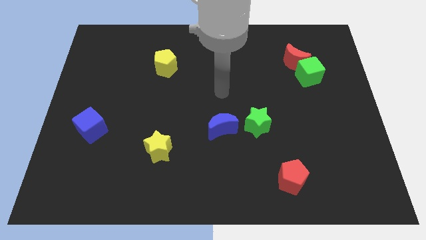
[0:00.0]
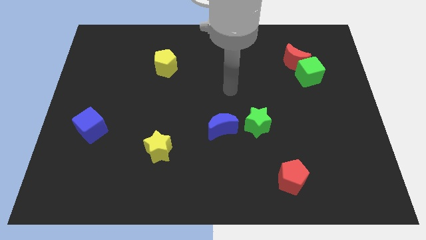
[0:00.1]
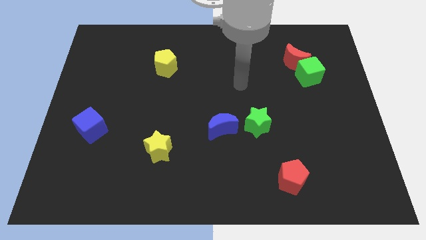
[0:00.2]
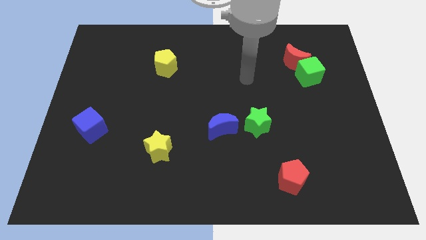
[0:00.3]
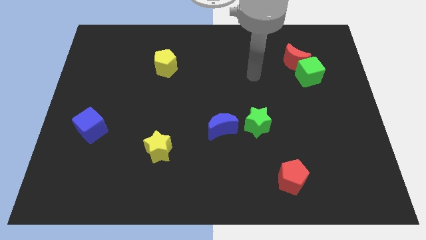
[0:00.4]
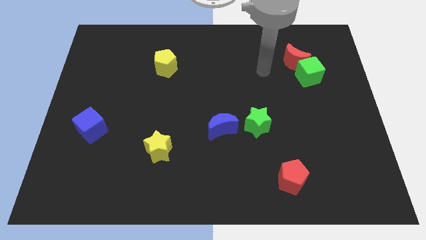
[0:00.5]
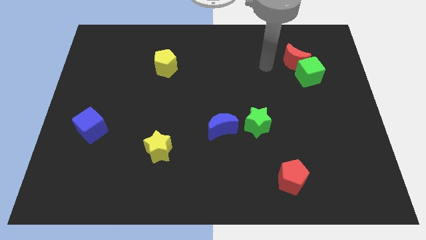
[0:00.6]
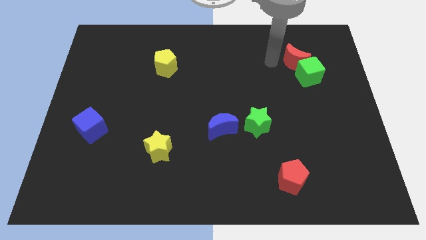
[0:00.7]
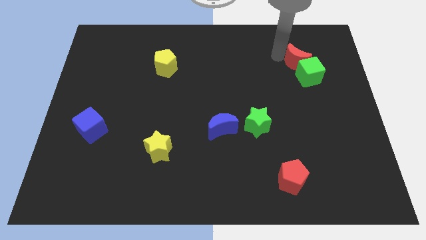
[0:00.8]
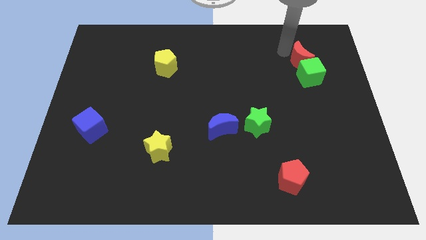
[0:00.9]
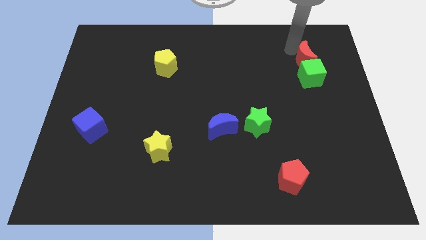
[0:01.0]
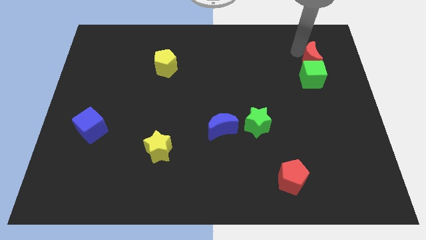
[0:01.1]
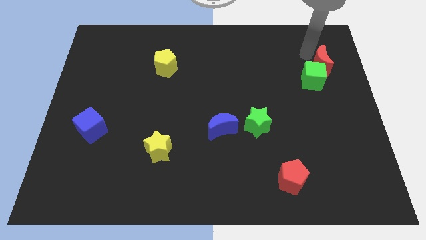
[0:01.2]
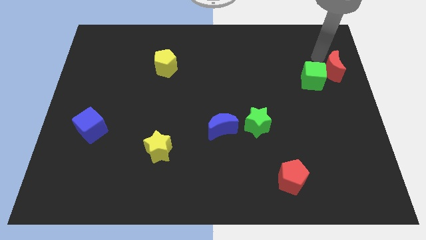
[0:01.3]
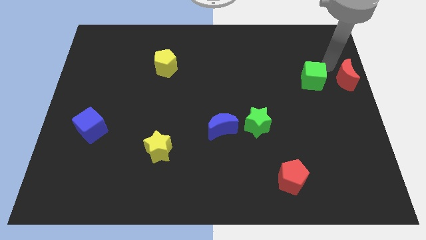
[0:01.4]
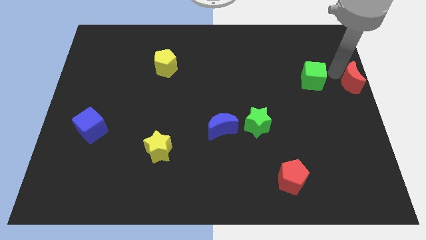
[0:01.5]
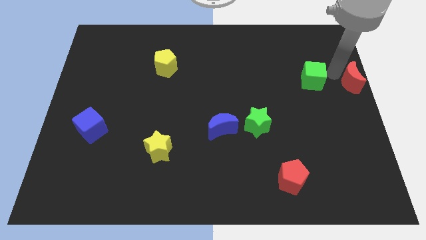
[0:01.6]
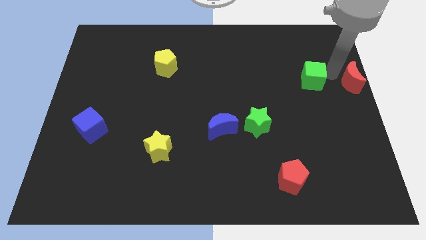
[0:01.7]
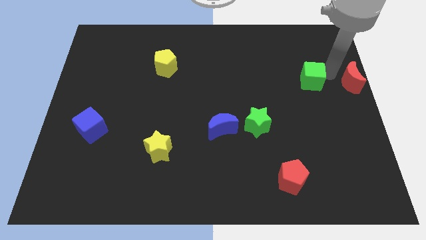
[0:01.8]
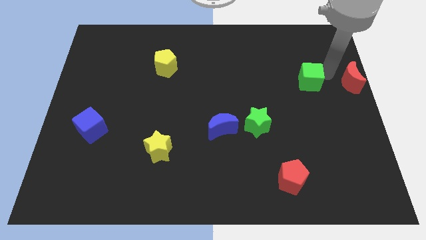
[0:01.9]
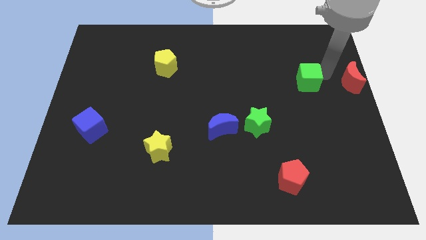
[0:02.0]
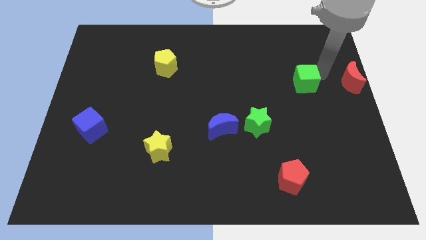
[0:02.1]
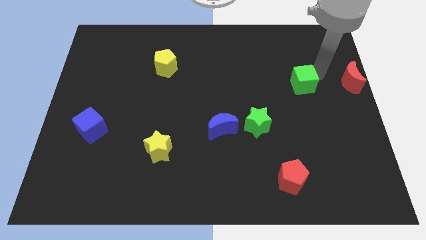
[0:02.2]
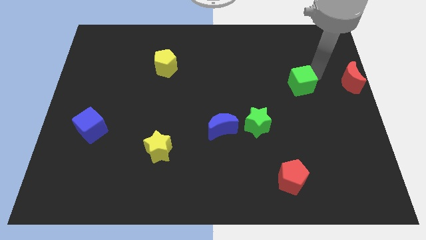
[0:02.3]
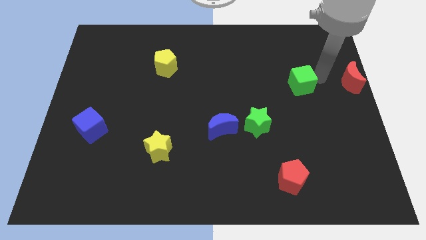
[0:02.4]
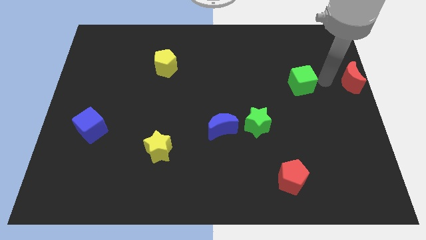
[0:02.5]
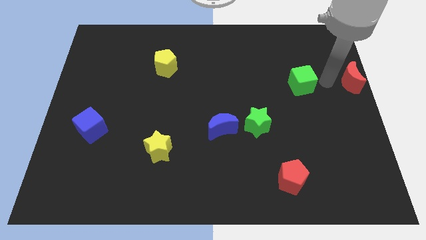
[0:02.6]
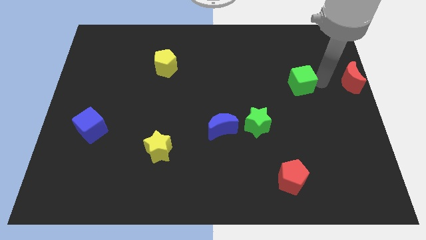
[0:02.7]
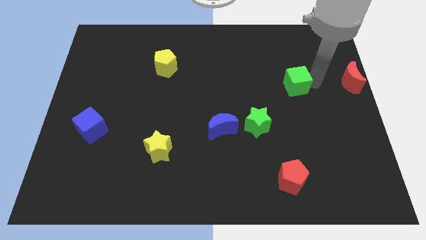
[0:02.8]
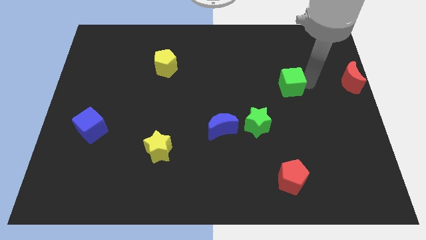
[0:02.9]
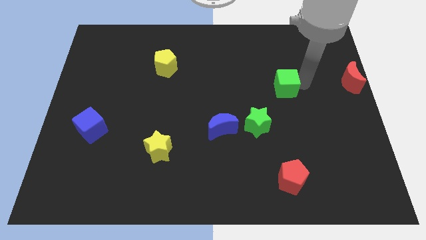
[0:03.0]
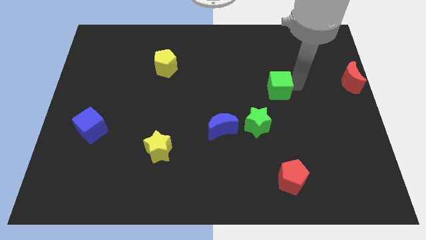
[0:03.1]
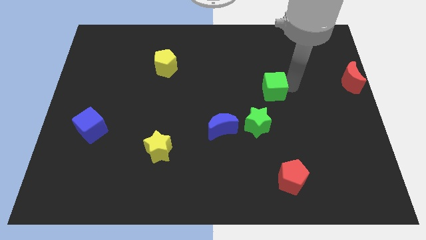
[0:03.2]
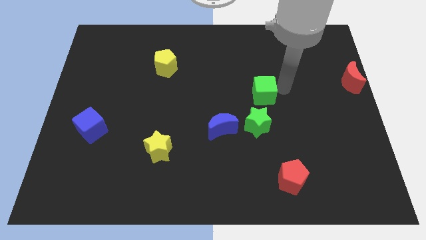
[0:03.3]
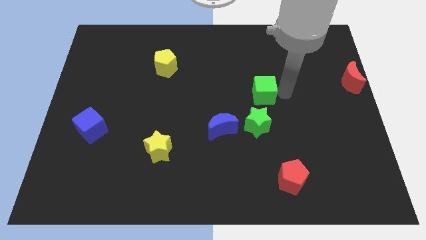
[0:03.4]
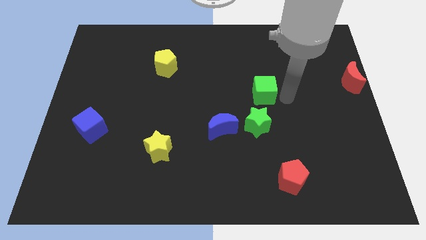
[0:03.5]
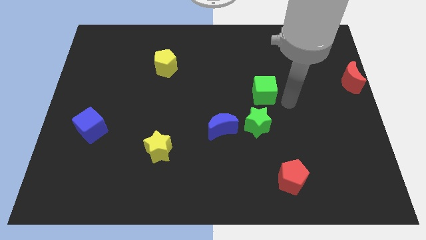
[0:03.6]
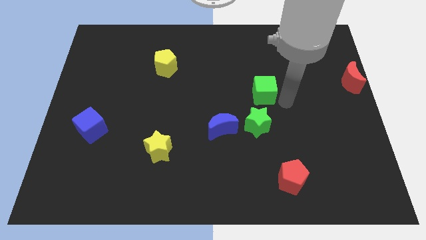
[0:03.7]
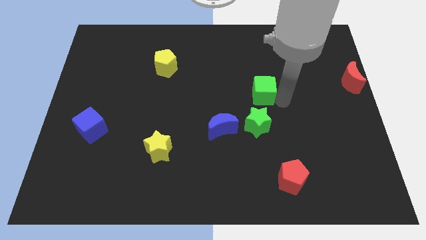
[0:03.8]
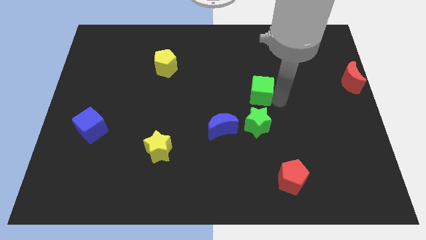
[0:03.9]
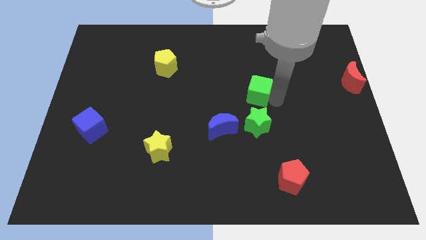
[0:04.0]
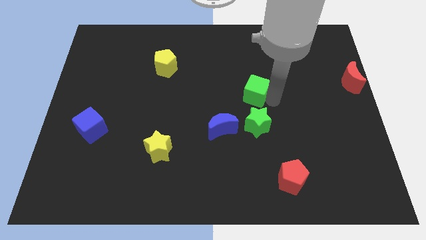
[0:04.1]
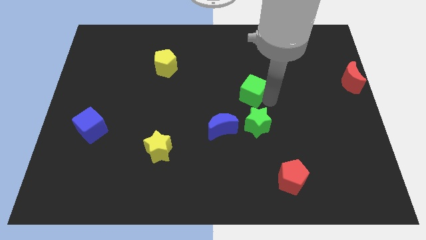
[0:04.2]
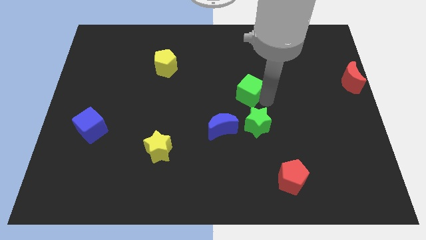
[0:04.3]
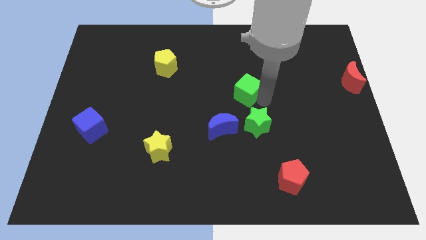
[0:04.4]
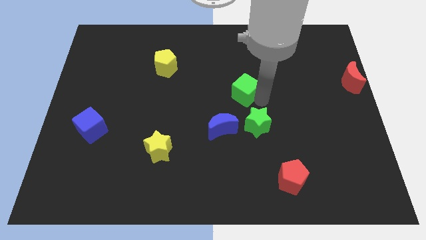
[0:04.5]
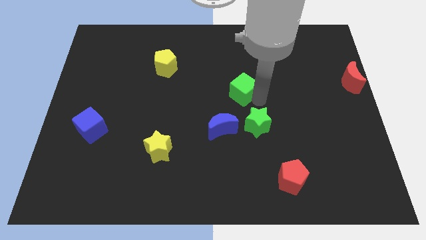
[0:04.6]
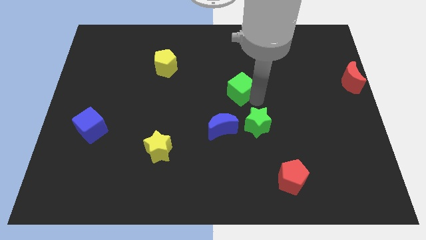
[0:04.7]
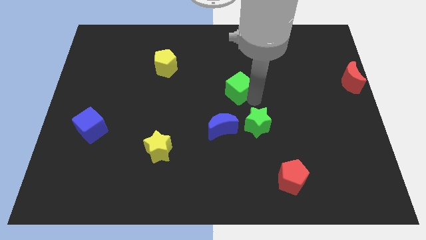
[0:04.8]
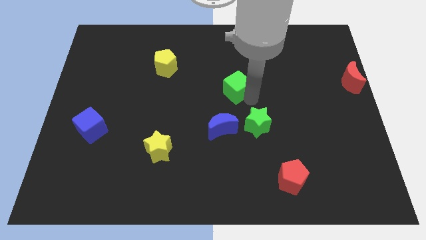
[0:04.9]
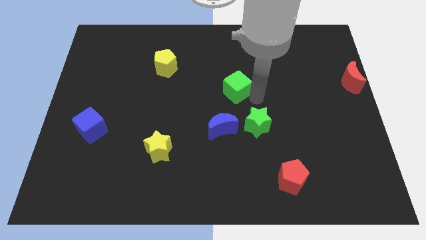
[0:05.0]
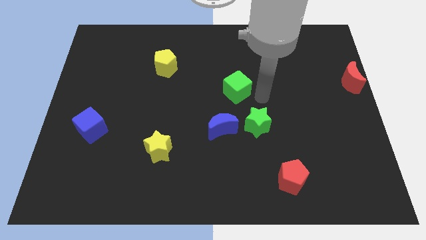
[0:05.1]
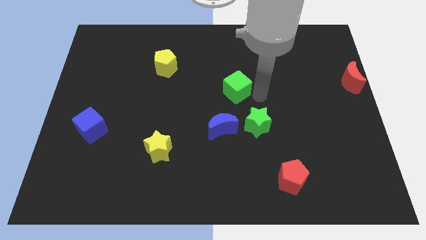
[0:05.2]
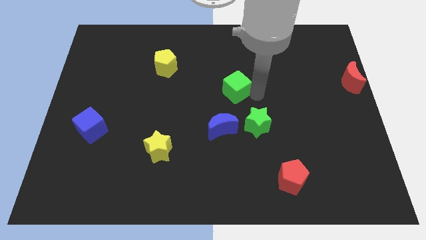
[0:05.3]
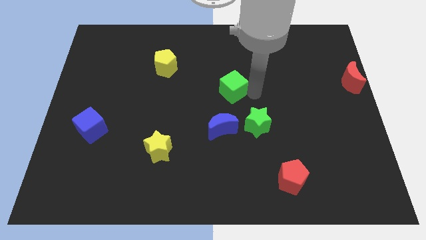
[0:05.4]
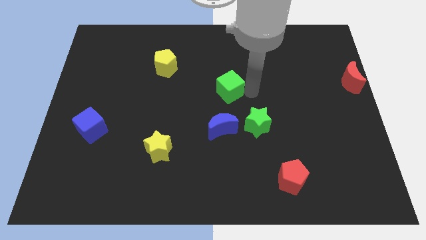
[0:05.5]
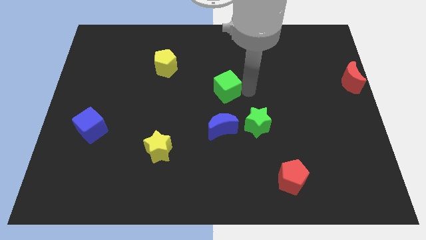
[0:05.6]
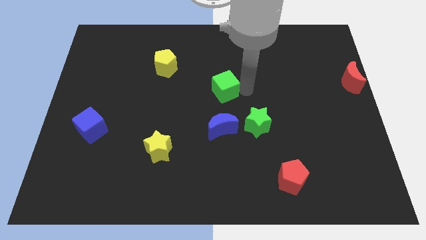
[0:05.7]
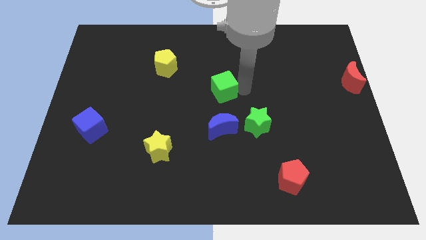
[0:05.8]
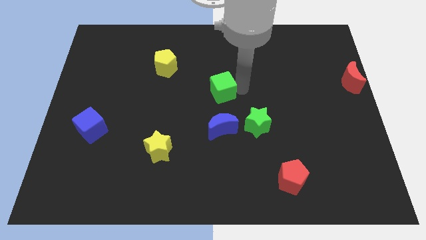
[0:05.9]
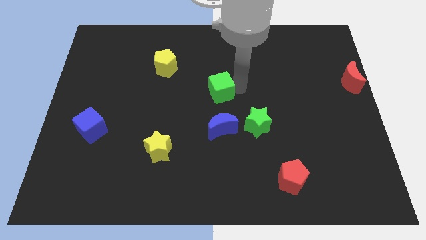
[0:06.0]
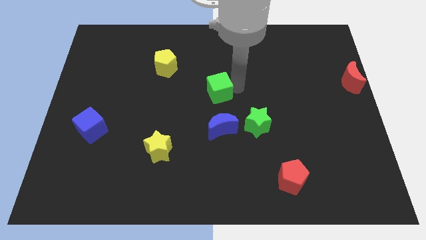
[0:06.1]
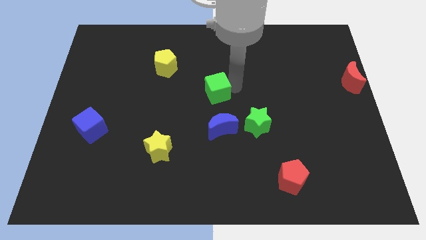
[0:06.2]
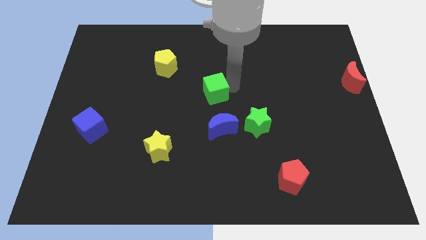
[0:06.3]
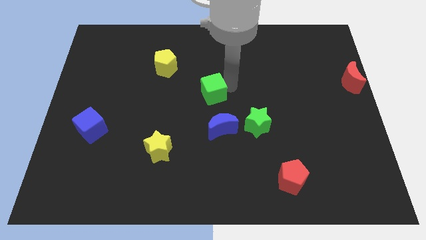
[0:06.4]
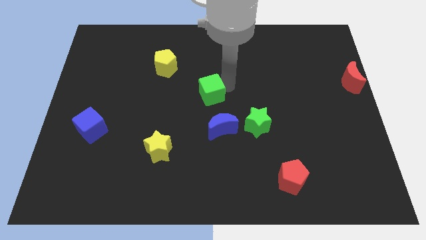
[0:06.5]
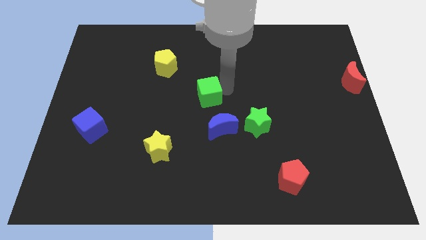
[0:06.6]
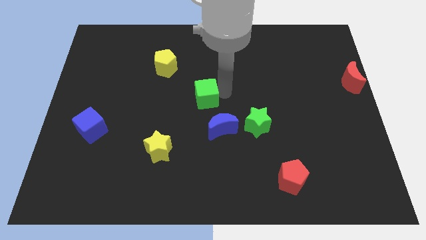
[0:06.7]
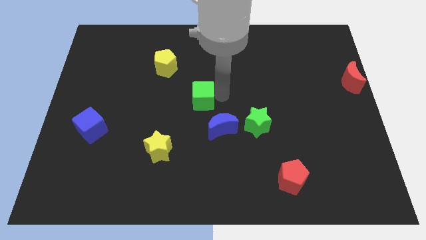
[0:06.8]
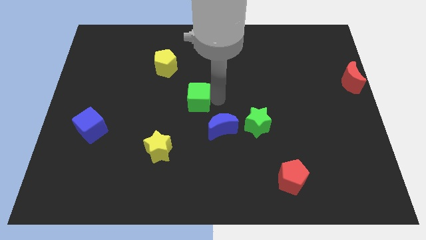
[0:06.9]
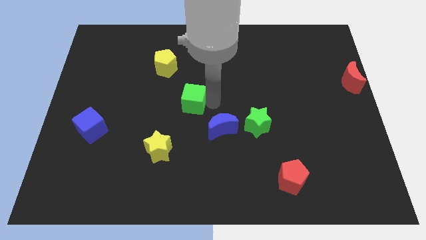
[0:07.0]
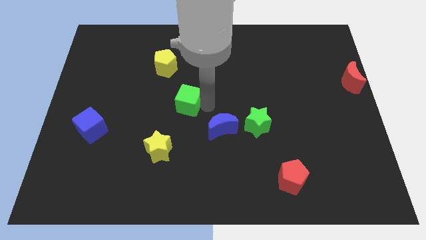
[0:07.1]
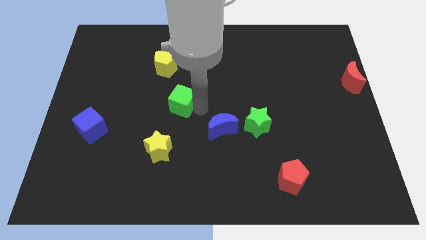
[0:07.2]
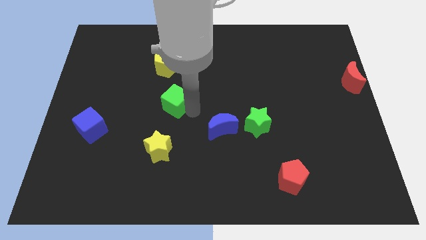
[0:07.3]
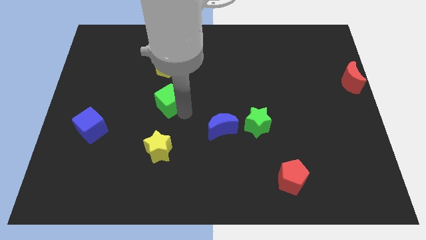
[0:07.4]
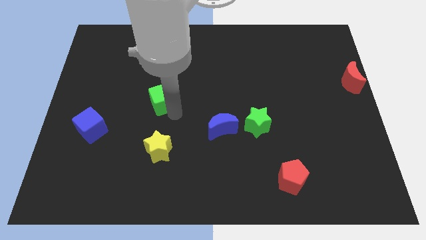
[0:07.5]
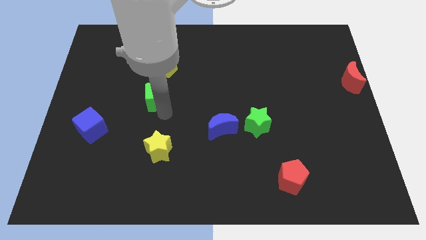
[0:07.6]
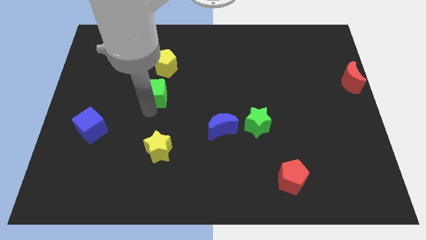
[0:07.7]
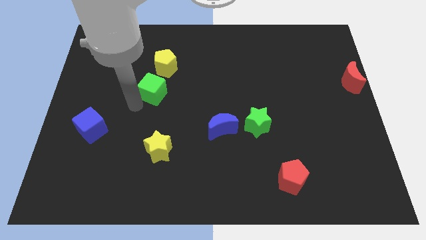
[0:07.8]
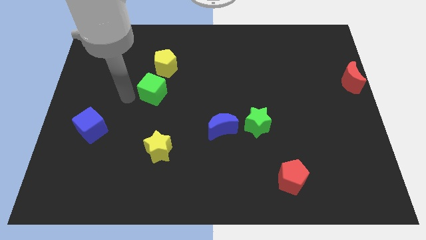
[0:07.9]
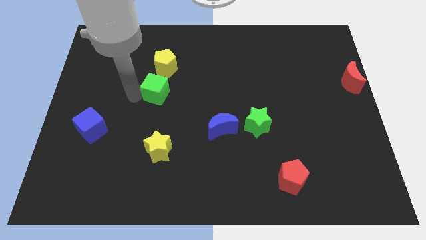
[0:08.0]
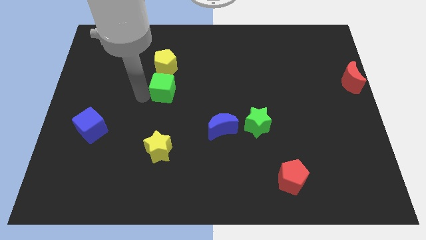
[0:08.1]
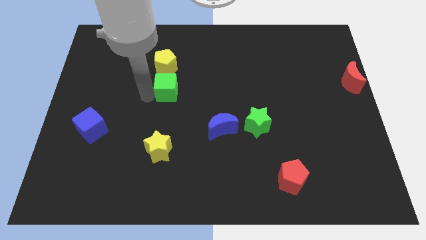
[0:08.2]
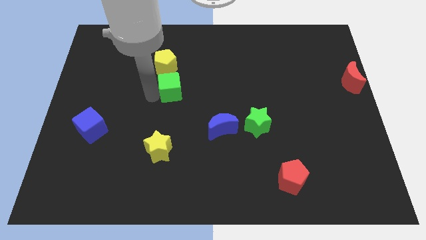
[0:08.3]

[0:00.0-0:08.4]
move the green cube to the bottom right of the yellow pentagon
